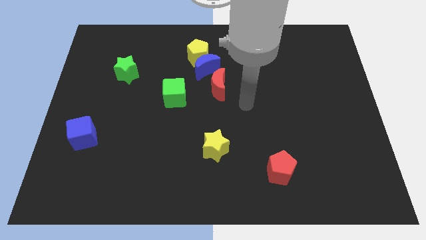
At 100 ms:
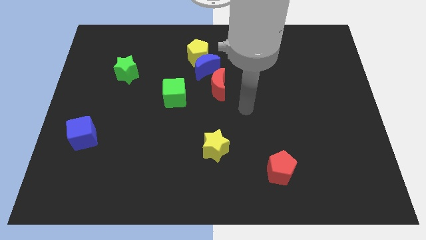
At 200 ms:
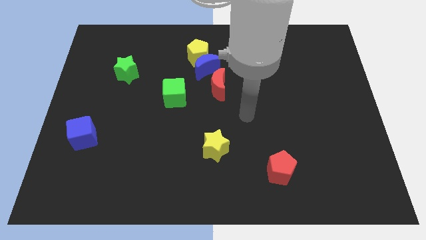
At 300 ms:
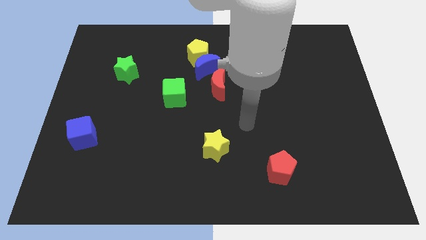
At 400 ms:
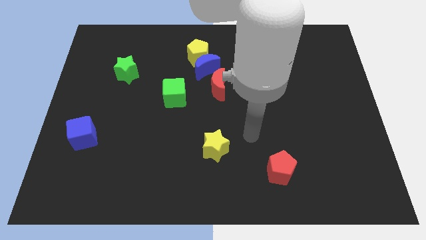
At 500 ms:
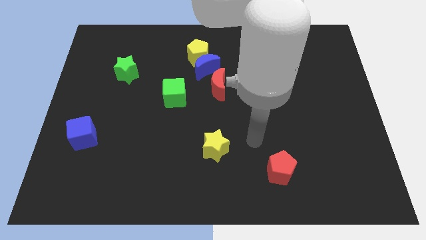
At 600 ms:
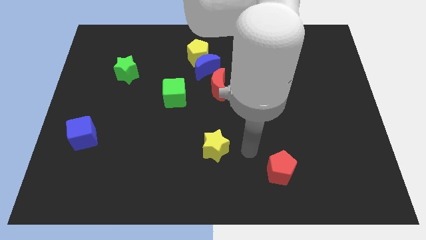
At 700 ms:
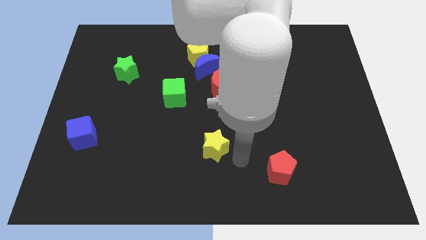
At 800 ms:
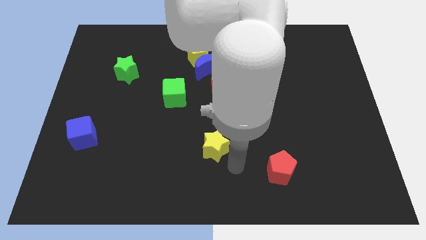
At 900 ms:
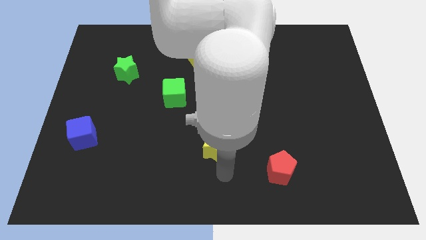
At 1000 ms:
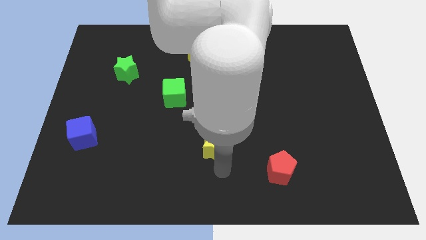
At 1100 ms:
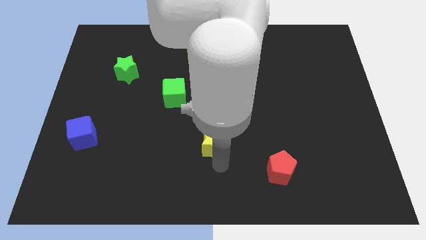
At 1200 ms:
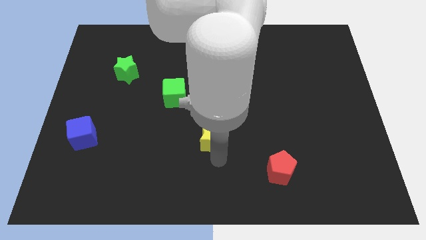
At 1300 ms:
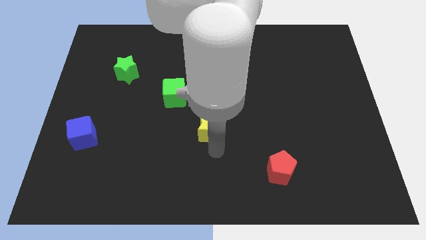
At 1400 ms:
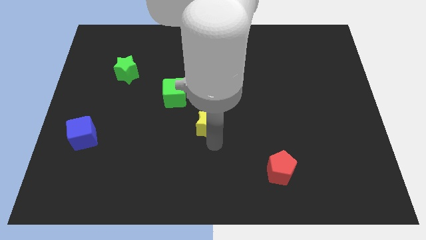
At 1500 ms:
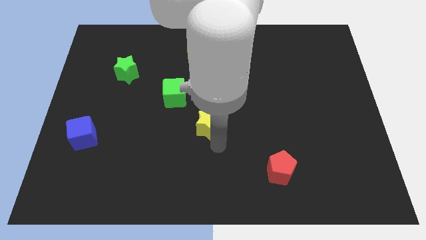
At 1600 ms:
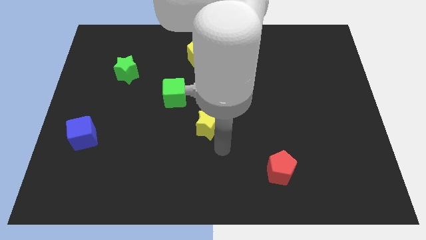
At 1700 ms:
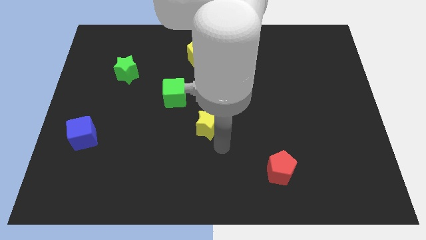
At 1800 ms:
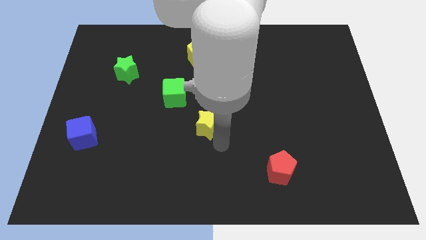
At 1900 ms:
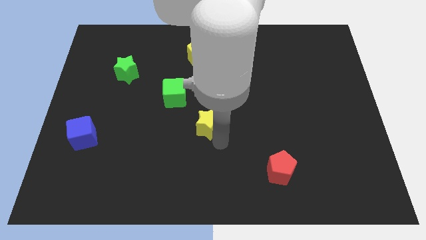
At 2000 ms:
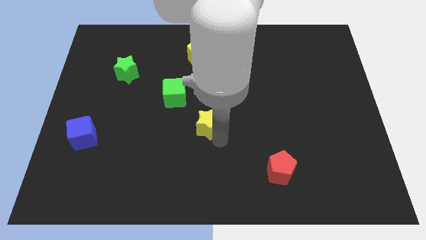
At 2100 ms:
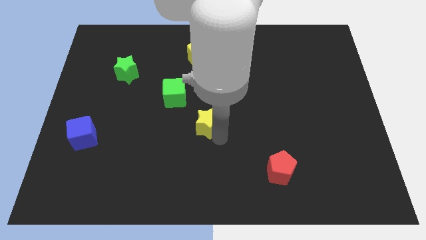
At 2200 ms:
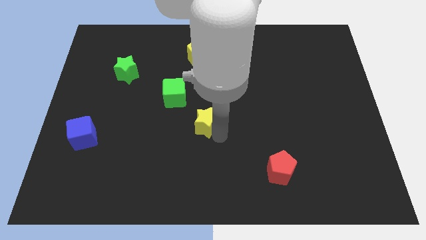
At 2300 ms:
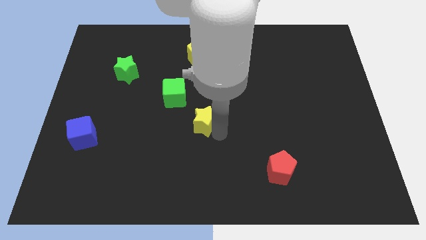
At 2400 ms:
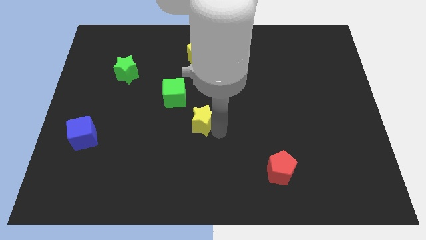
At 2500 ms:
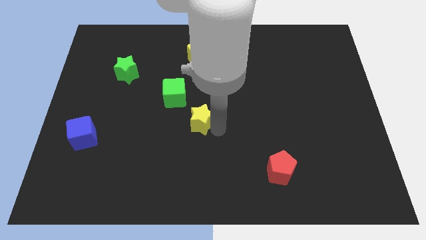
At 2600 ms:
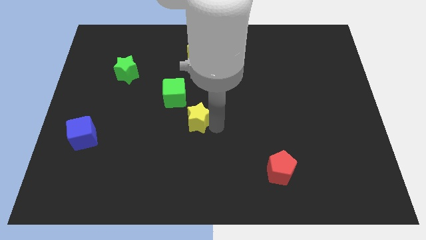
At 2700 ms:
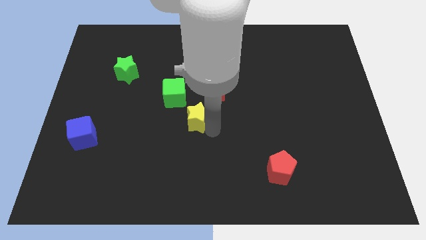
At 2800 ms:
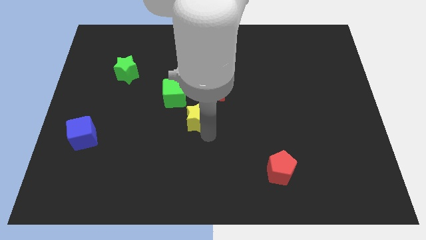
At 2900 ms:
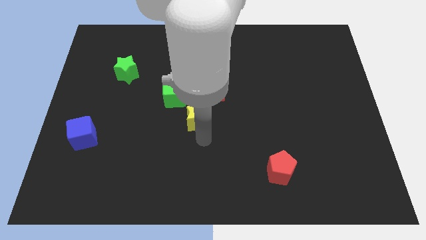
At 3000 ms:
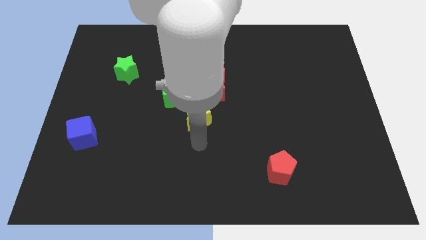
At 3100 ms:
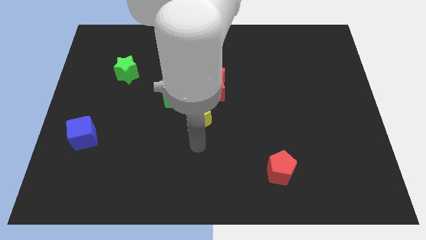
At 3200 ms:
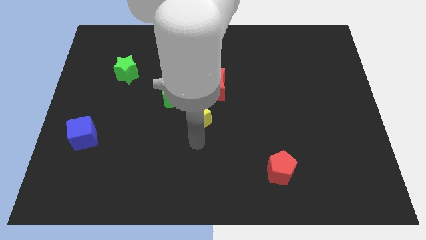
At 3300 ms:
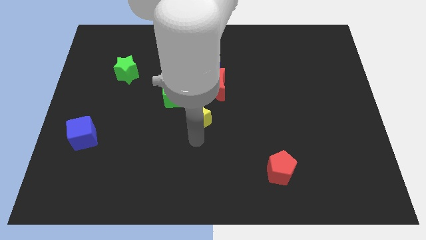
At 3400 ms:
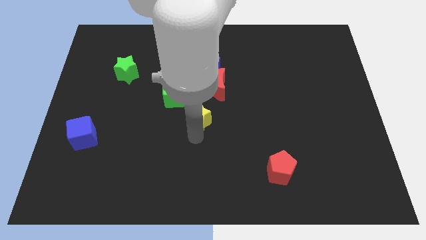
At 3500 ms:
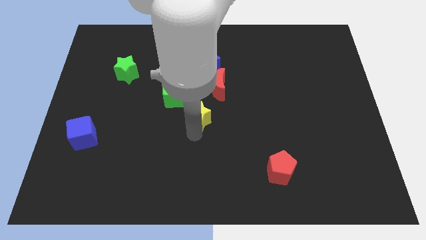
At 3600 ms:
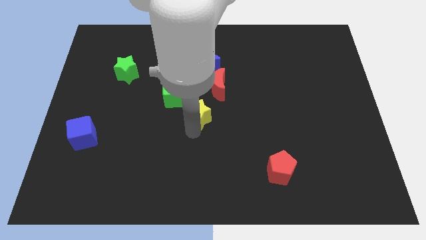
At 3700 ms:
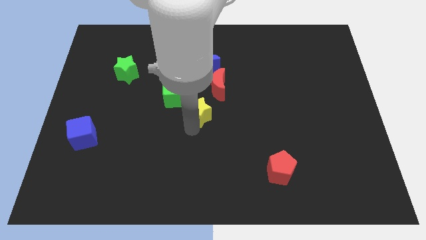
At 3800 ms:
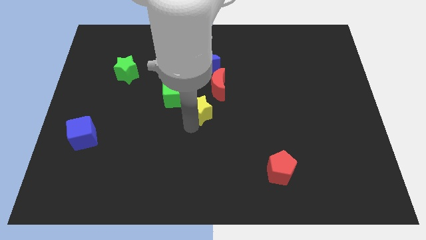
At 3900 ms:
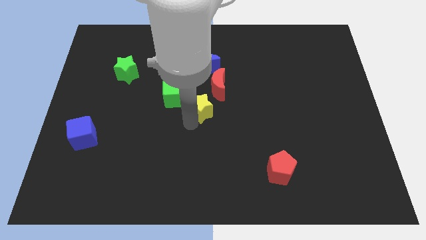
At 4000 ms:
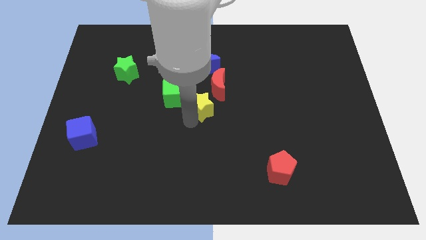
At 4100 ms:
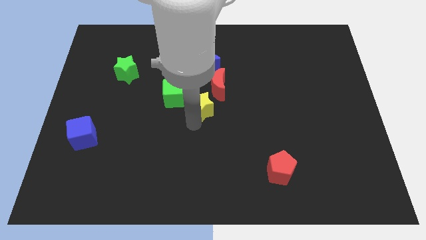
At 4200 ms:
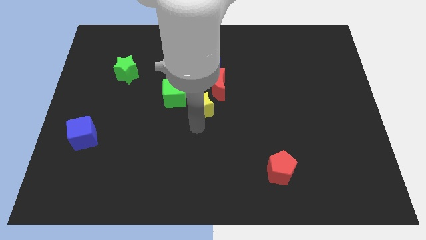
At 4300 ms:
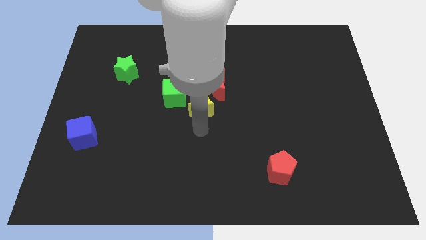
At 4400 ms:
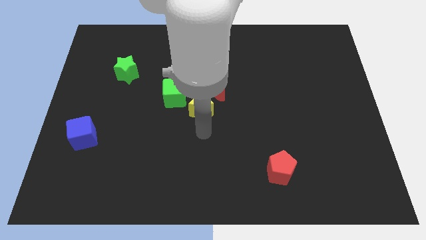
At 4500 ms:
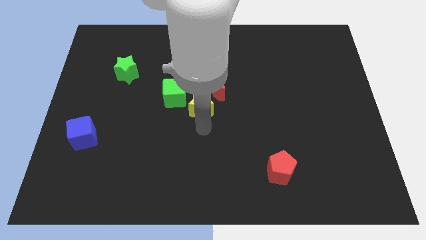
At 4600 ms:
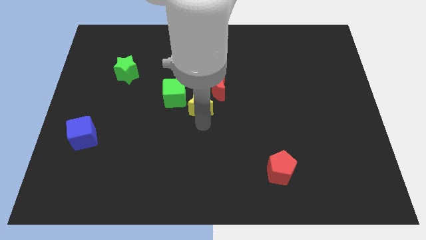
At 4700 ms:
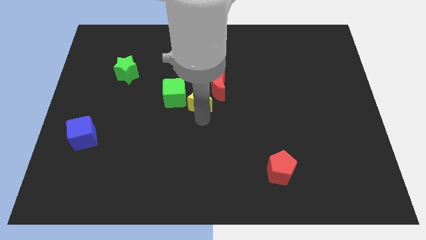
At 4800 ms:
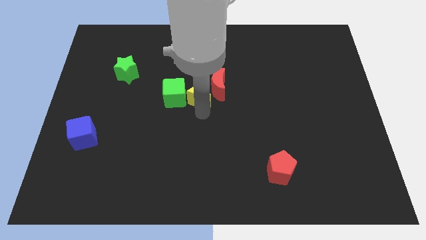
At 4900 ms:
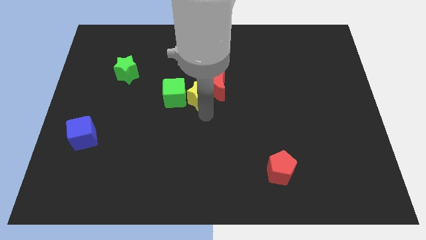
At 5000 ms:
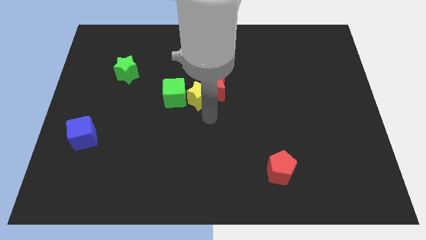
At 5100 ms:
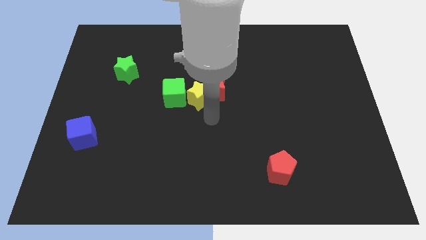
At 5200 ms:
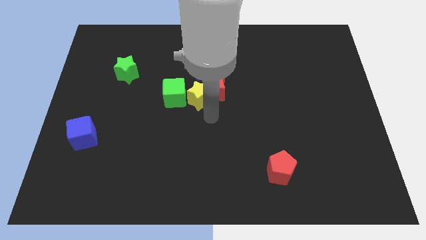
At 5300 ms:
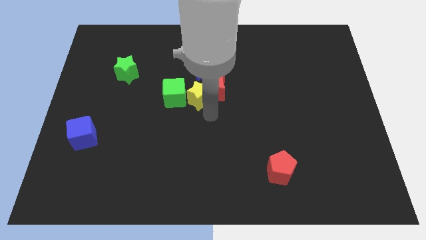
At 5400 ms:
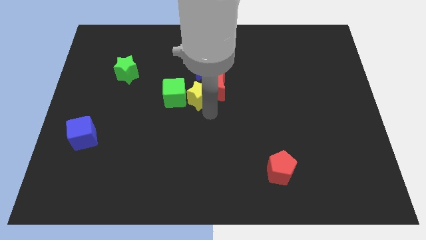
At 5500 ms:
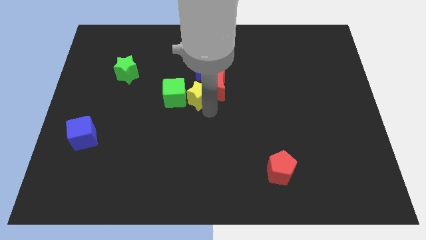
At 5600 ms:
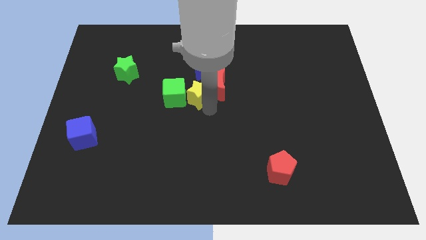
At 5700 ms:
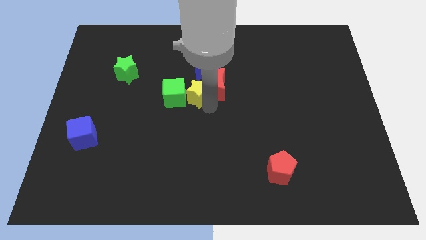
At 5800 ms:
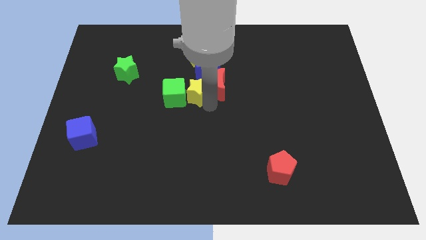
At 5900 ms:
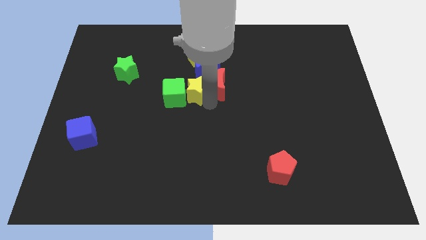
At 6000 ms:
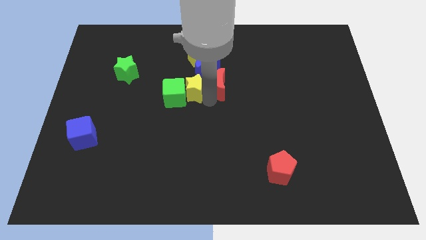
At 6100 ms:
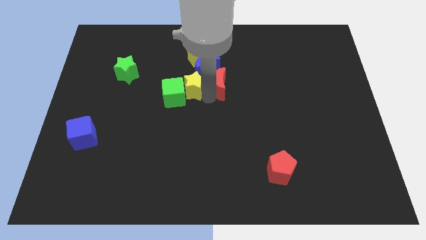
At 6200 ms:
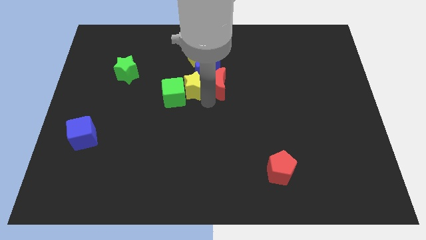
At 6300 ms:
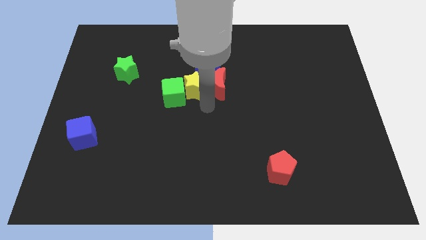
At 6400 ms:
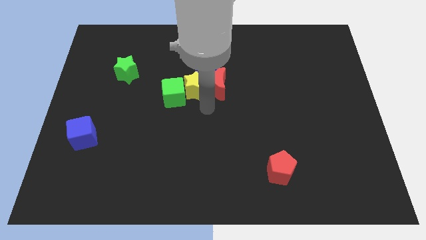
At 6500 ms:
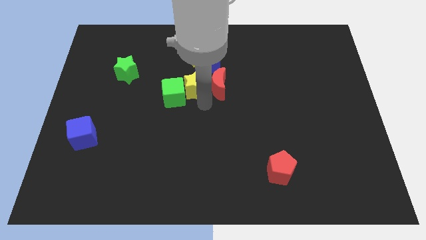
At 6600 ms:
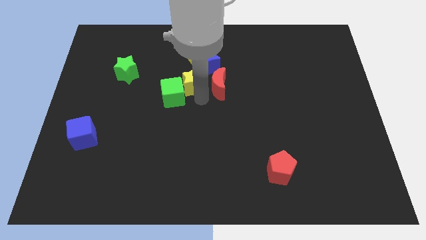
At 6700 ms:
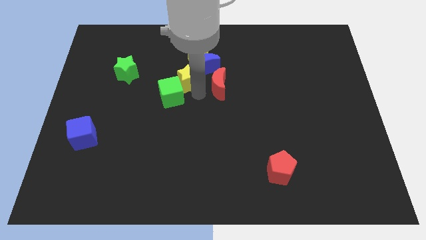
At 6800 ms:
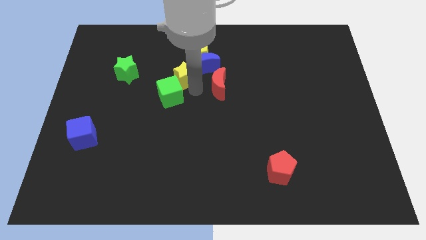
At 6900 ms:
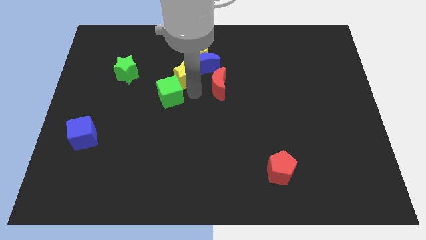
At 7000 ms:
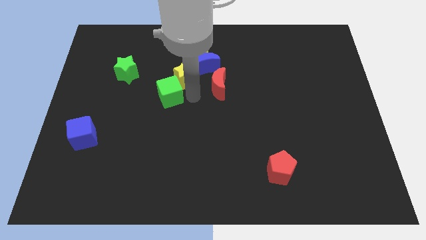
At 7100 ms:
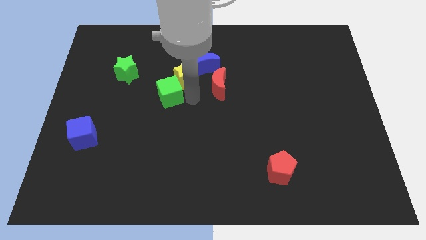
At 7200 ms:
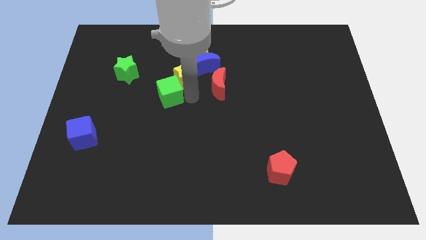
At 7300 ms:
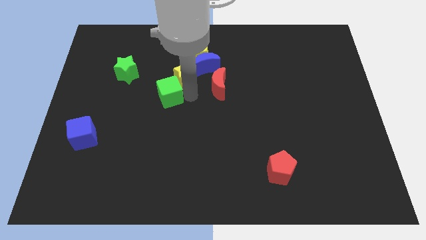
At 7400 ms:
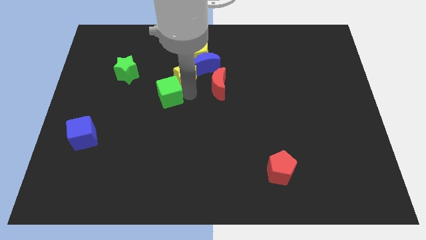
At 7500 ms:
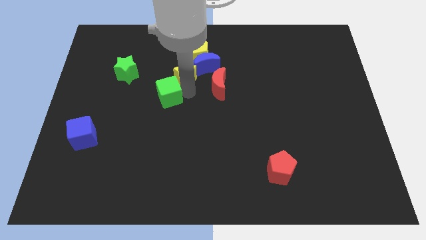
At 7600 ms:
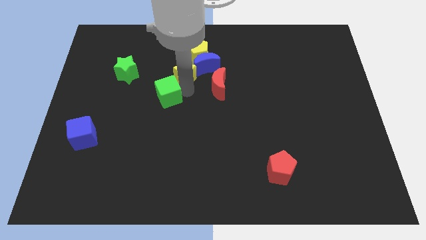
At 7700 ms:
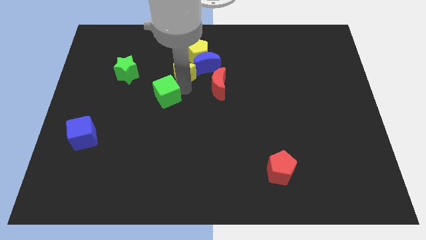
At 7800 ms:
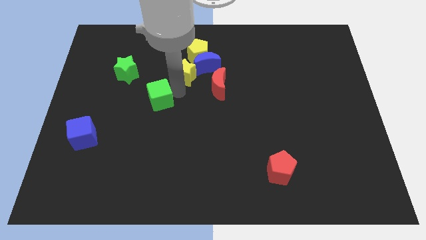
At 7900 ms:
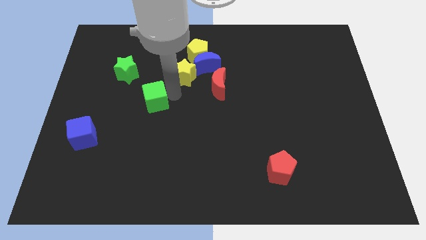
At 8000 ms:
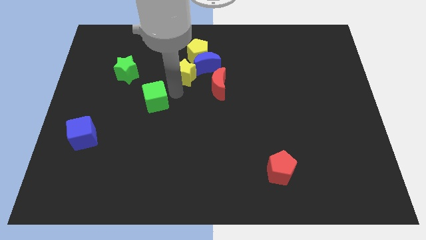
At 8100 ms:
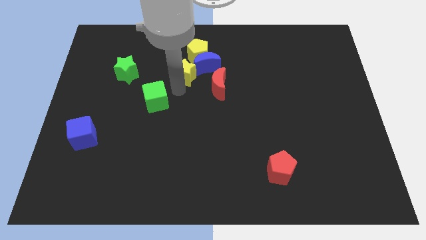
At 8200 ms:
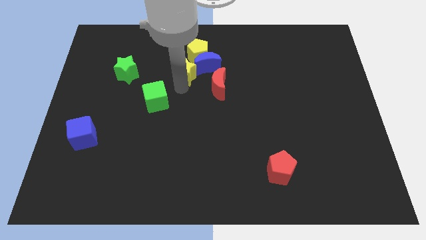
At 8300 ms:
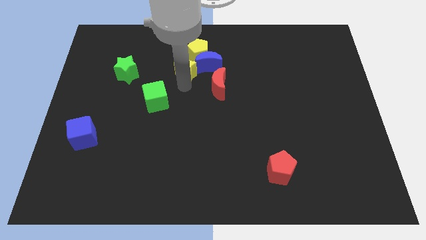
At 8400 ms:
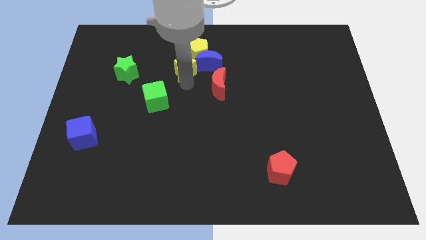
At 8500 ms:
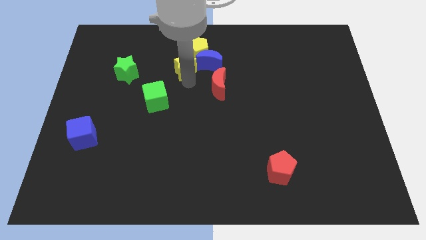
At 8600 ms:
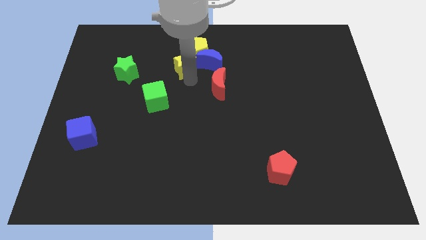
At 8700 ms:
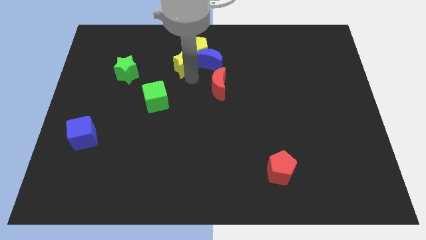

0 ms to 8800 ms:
move the yellow star to the yellow pentagon
